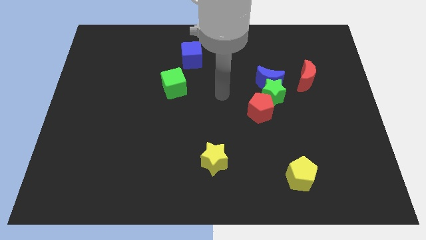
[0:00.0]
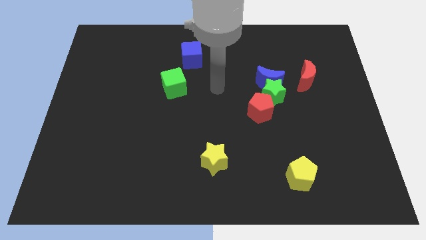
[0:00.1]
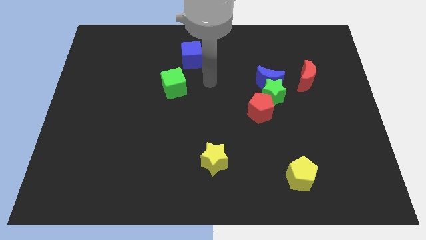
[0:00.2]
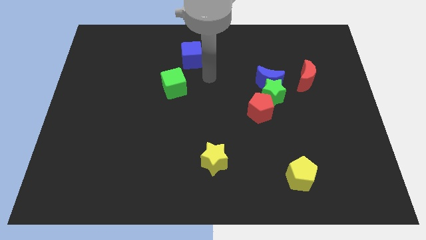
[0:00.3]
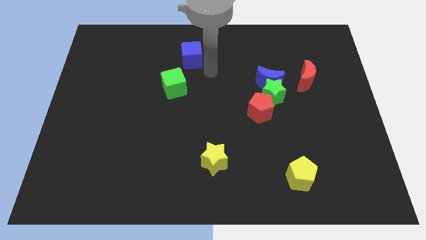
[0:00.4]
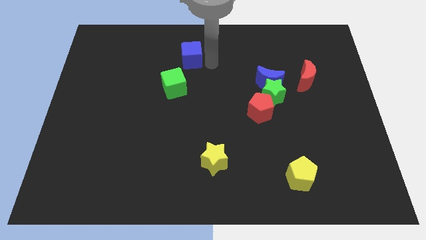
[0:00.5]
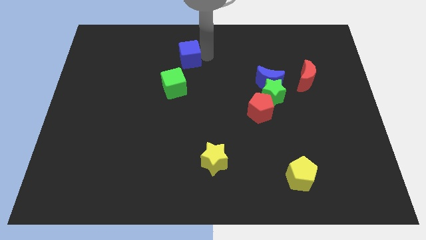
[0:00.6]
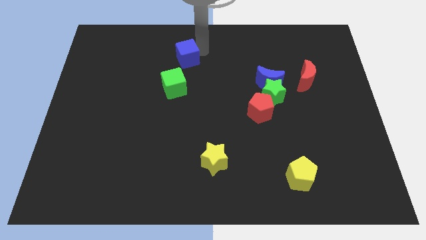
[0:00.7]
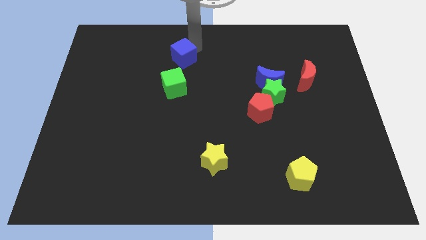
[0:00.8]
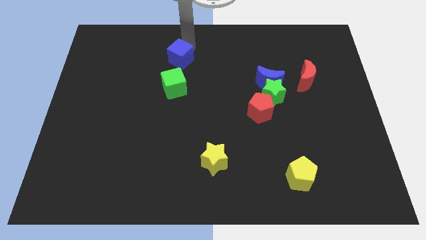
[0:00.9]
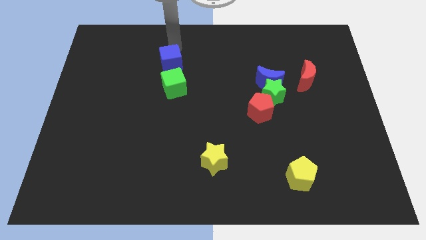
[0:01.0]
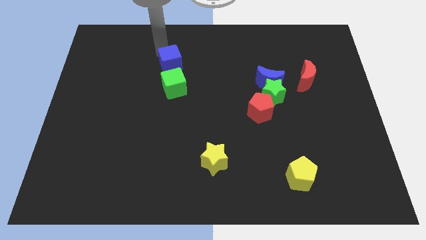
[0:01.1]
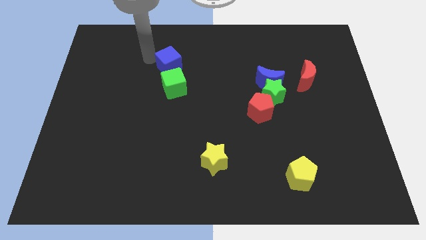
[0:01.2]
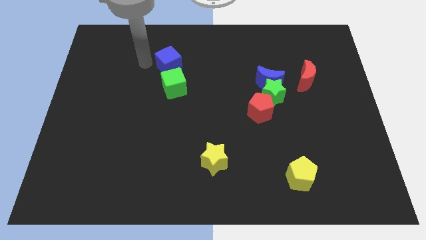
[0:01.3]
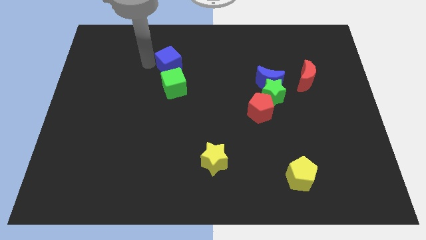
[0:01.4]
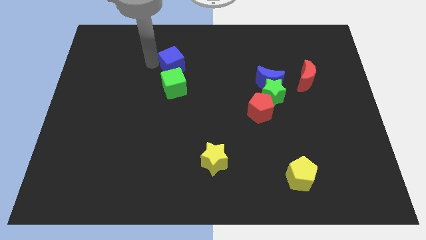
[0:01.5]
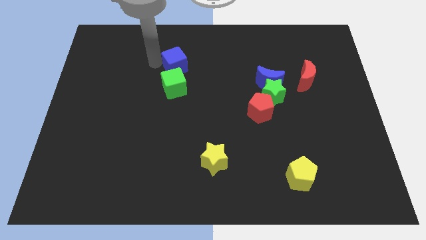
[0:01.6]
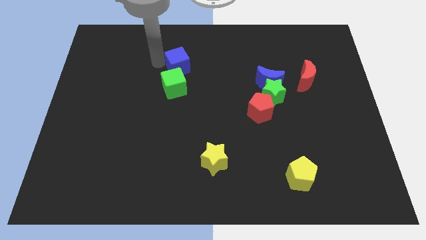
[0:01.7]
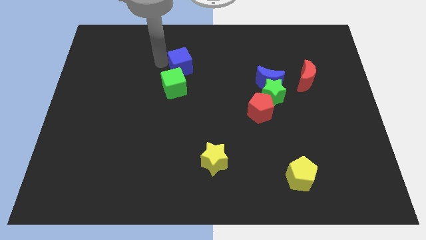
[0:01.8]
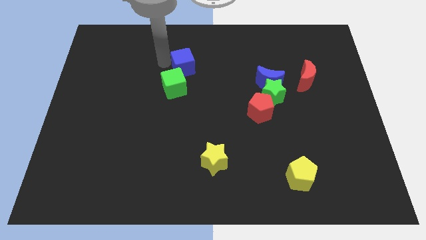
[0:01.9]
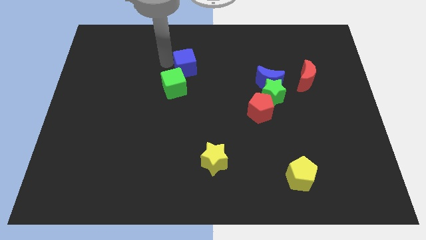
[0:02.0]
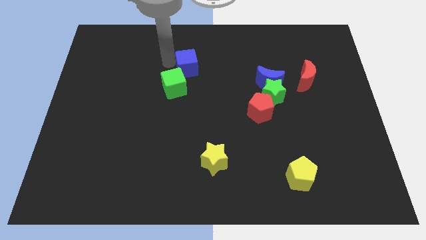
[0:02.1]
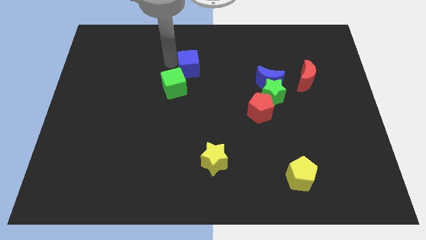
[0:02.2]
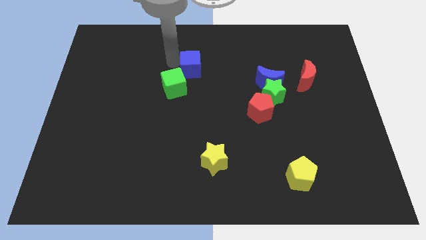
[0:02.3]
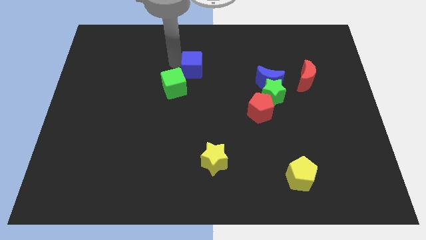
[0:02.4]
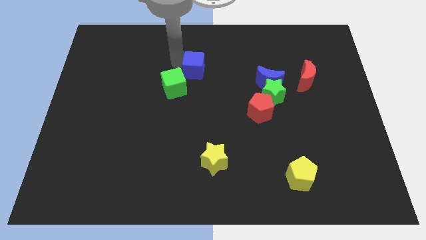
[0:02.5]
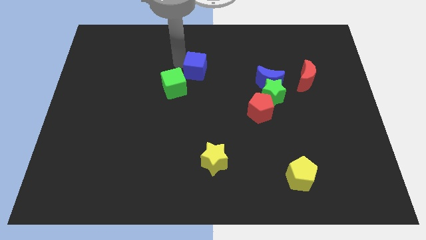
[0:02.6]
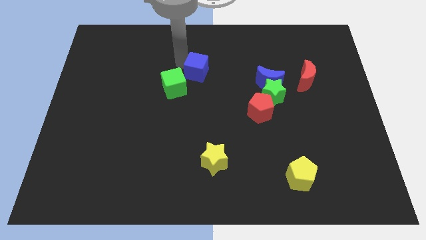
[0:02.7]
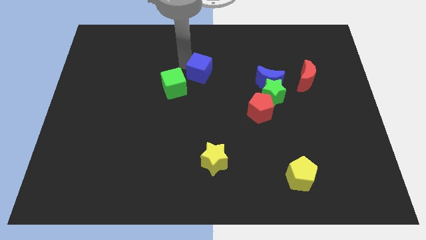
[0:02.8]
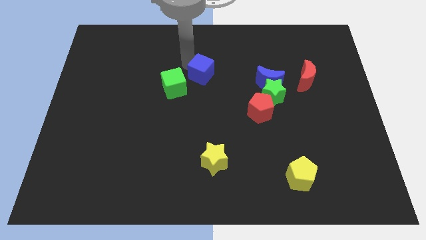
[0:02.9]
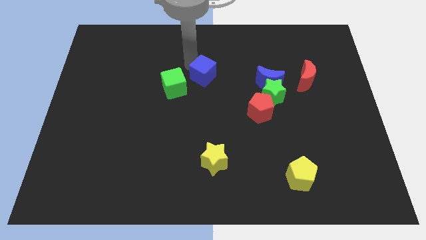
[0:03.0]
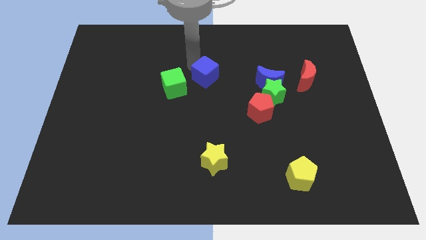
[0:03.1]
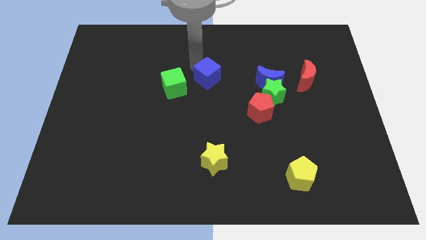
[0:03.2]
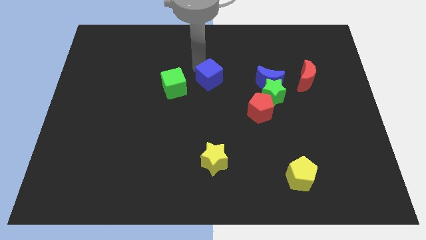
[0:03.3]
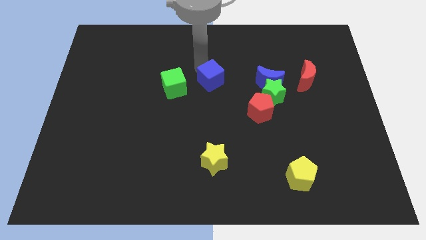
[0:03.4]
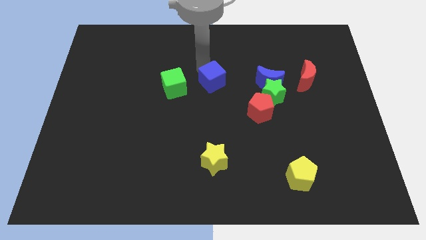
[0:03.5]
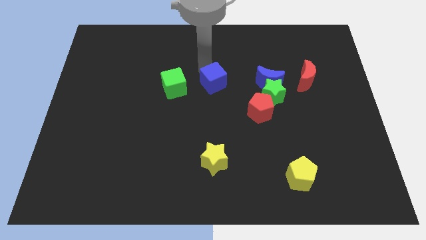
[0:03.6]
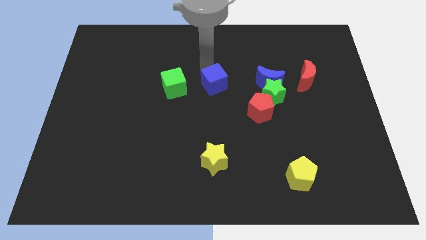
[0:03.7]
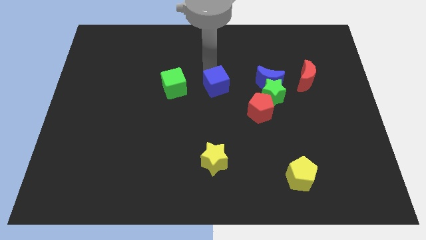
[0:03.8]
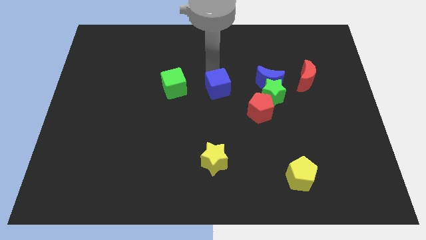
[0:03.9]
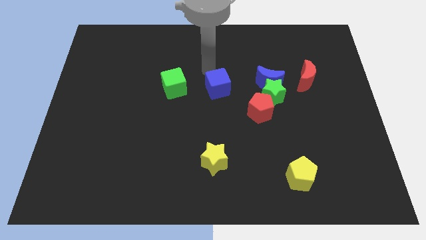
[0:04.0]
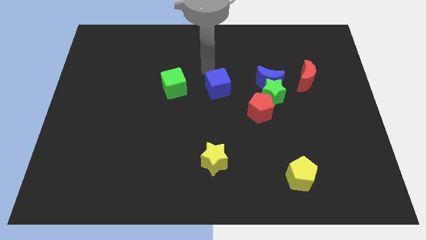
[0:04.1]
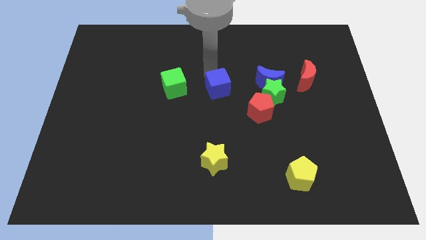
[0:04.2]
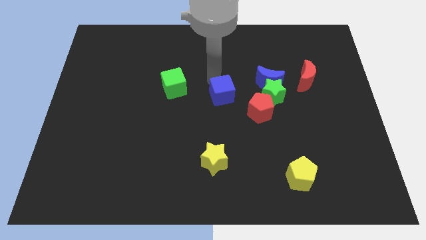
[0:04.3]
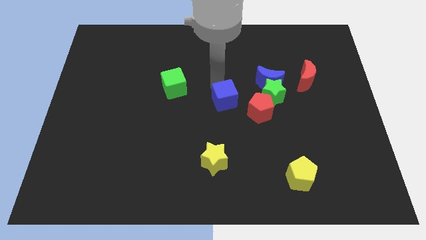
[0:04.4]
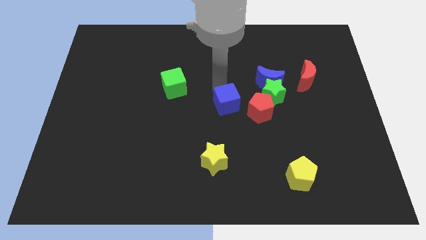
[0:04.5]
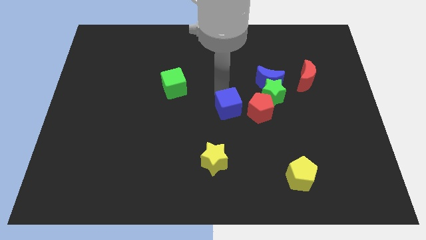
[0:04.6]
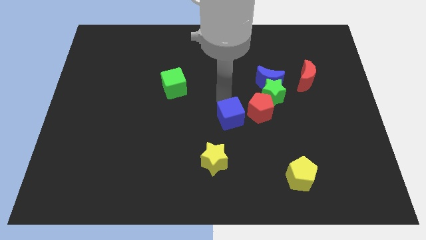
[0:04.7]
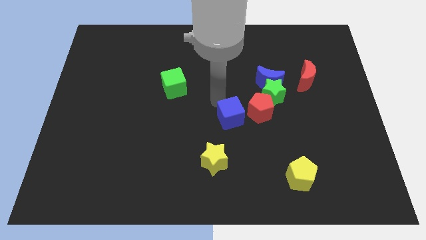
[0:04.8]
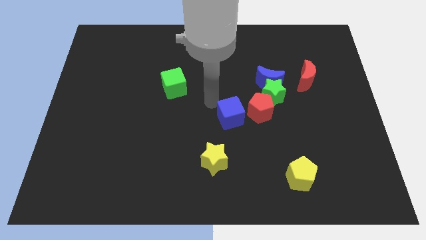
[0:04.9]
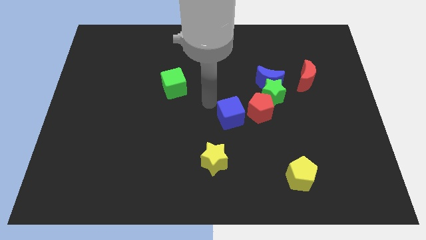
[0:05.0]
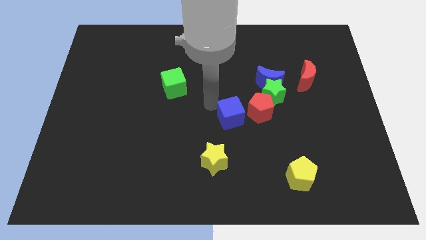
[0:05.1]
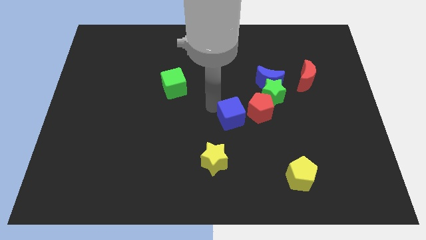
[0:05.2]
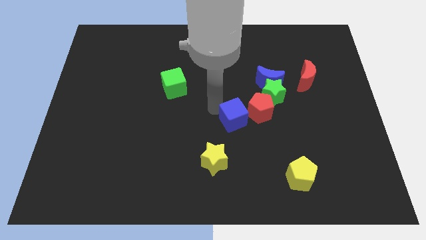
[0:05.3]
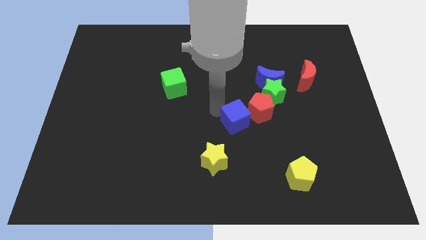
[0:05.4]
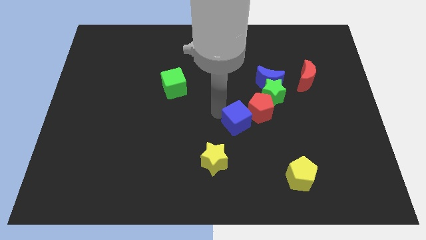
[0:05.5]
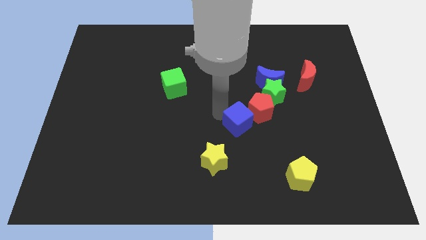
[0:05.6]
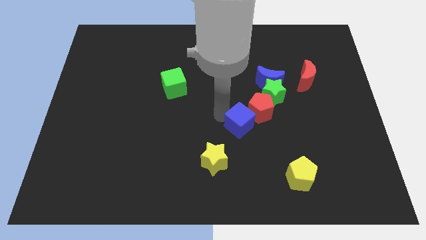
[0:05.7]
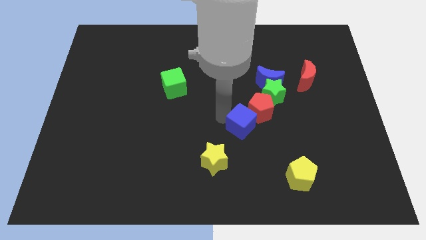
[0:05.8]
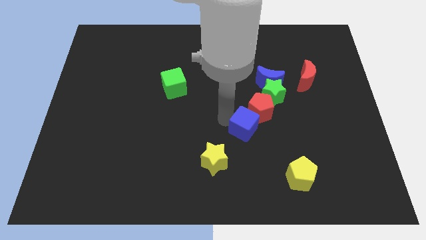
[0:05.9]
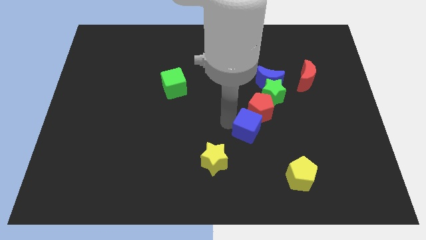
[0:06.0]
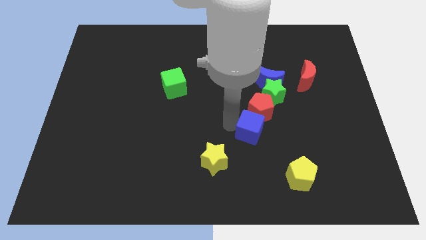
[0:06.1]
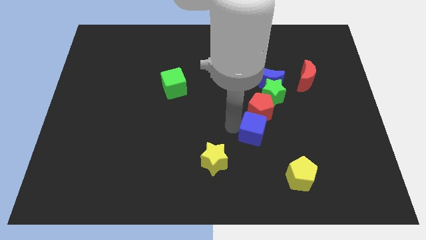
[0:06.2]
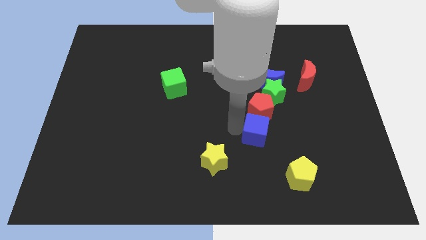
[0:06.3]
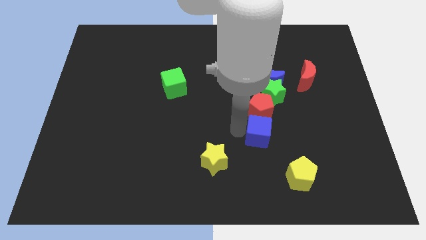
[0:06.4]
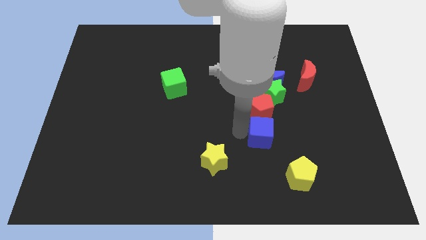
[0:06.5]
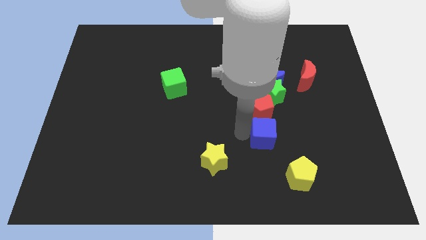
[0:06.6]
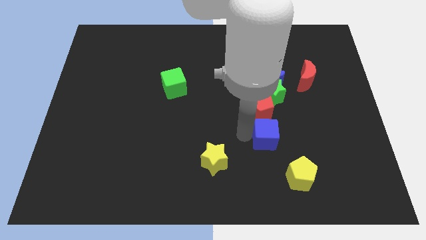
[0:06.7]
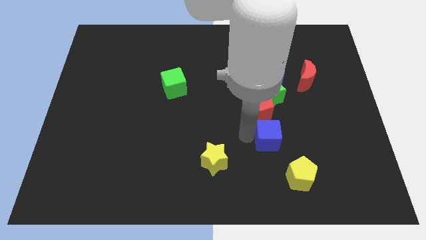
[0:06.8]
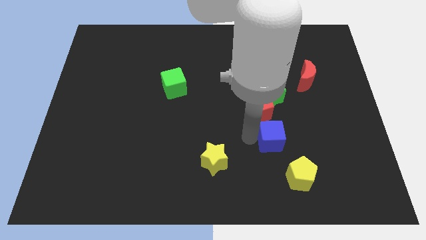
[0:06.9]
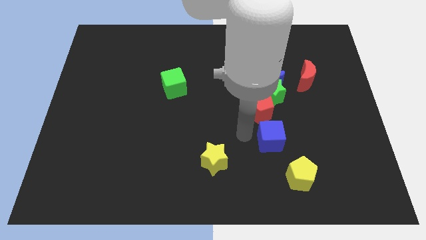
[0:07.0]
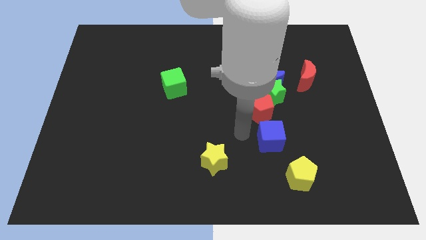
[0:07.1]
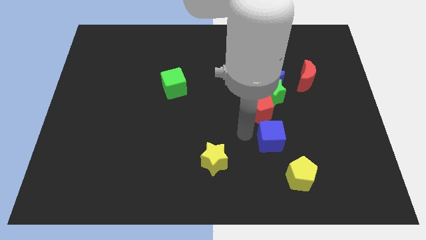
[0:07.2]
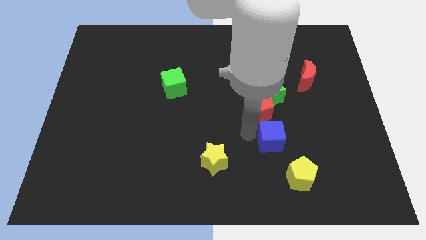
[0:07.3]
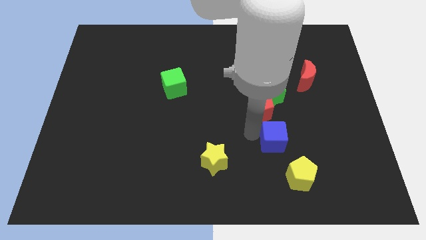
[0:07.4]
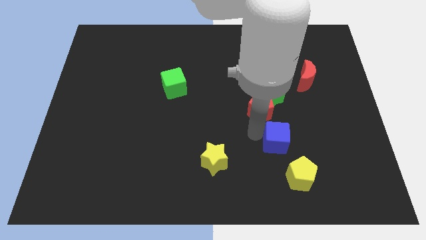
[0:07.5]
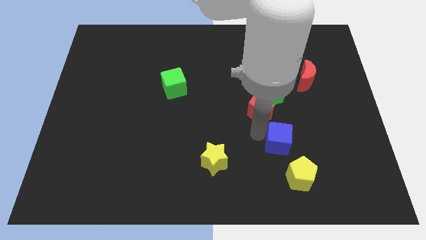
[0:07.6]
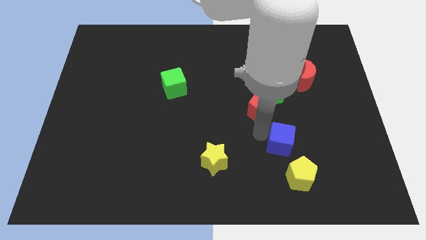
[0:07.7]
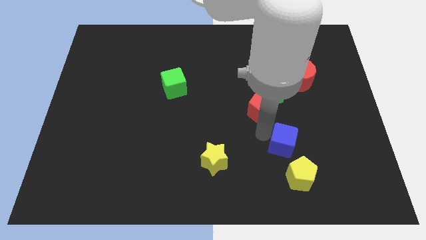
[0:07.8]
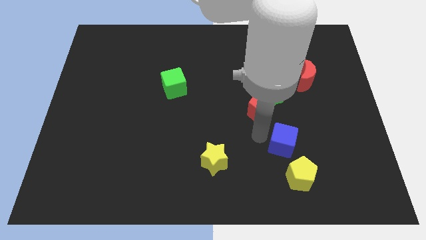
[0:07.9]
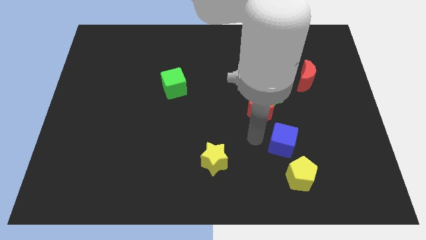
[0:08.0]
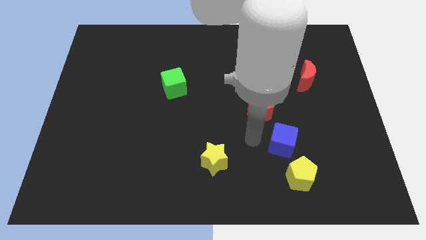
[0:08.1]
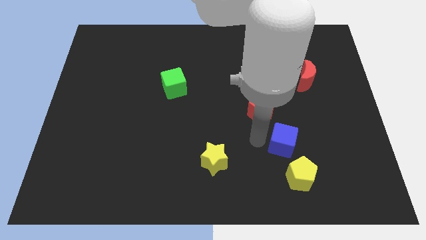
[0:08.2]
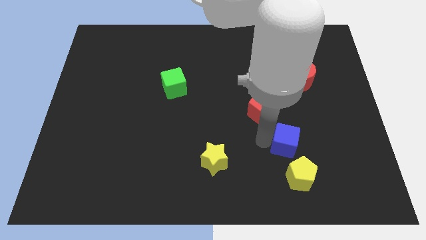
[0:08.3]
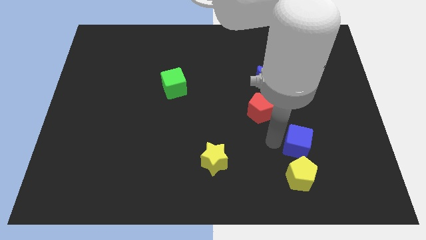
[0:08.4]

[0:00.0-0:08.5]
move the blue cube to the top right of the yellow pentagon
